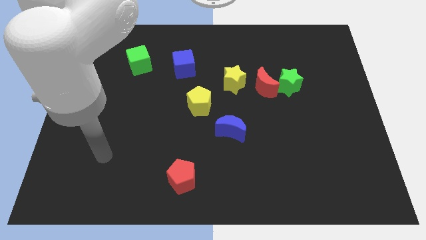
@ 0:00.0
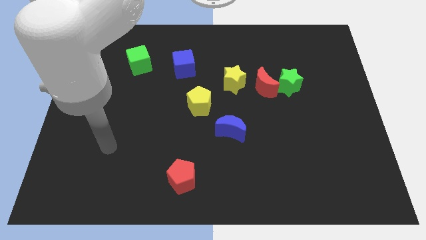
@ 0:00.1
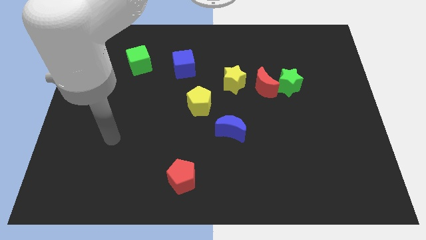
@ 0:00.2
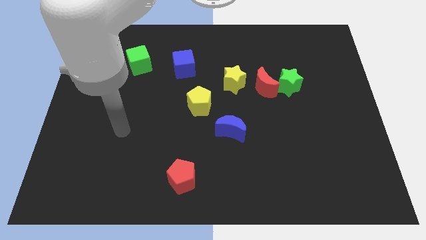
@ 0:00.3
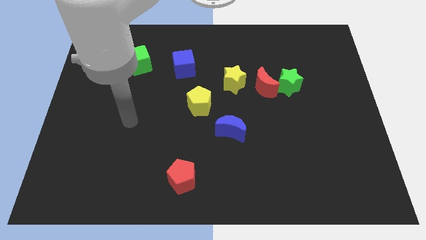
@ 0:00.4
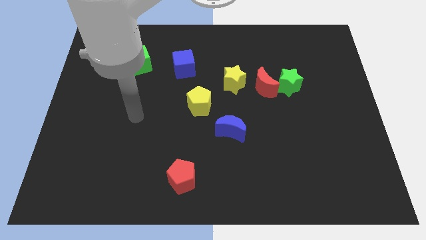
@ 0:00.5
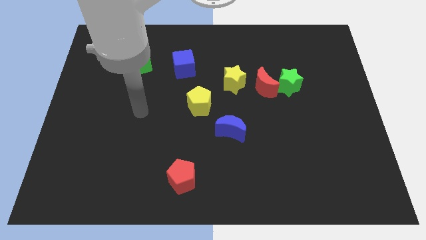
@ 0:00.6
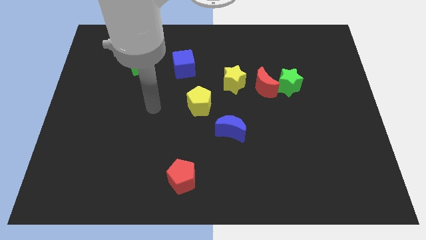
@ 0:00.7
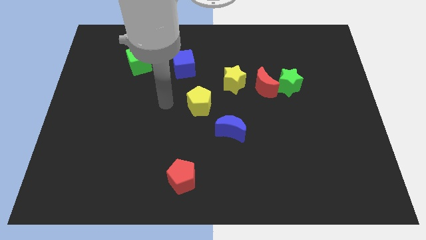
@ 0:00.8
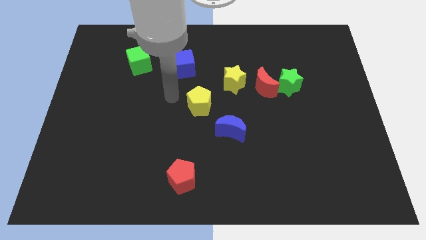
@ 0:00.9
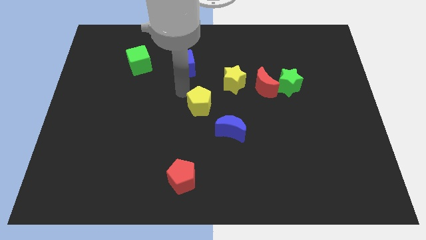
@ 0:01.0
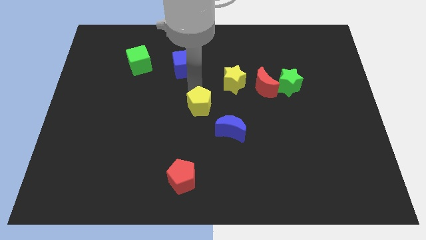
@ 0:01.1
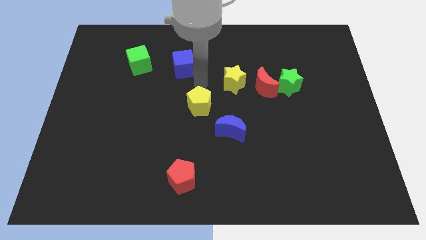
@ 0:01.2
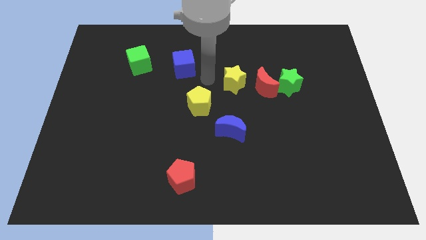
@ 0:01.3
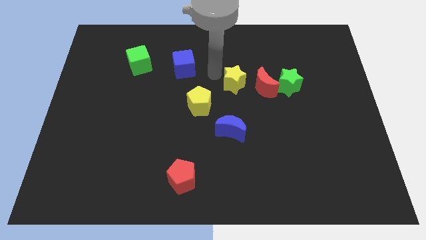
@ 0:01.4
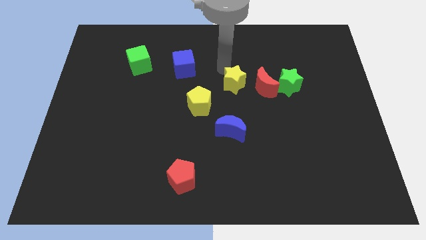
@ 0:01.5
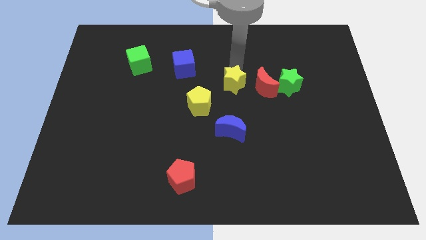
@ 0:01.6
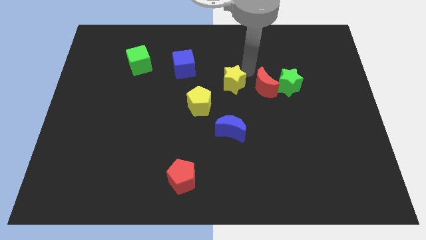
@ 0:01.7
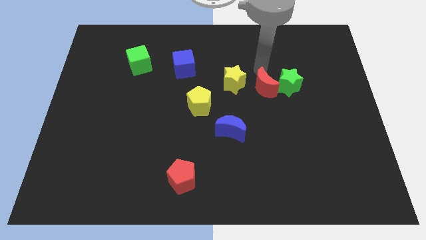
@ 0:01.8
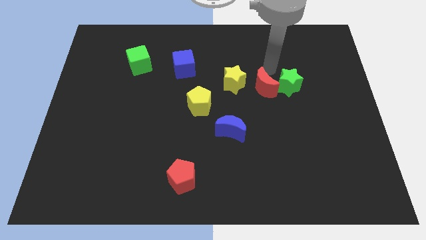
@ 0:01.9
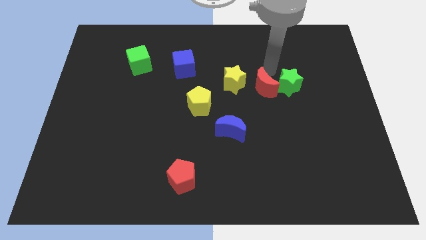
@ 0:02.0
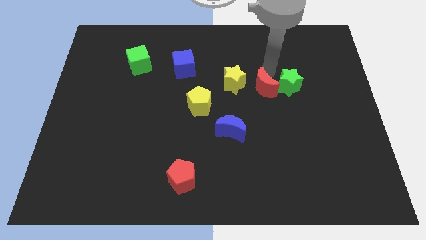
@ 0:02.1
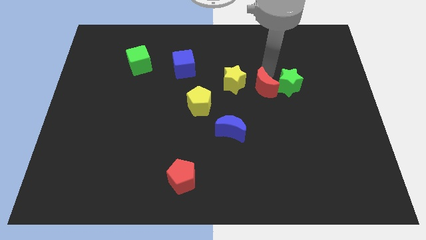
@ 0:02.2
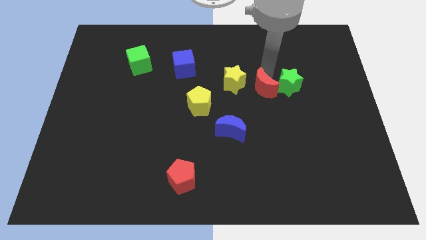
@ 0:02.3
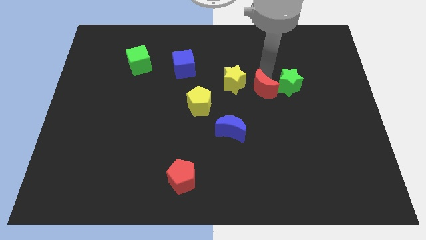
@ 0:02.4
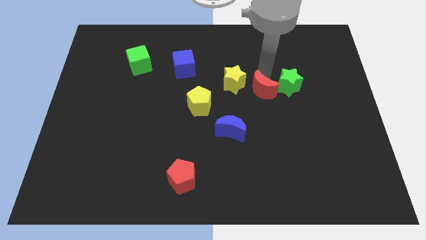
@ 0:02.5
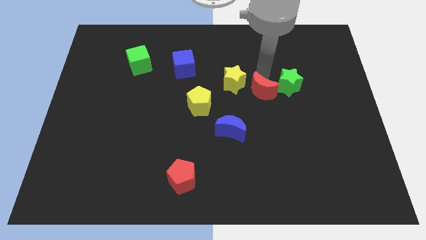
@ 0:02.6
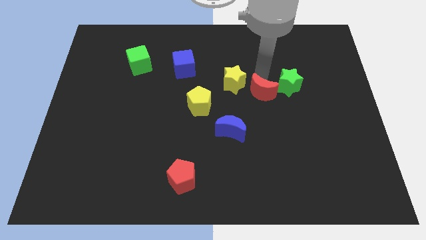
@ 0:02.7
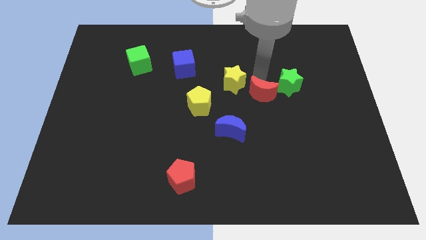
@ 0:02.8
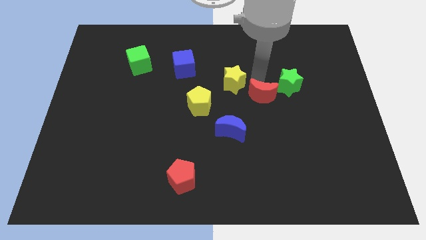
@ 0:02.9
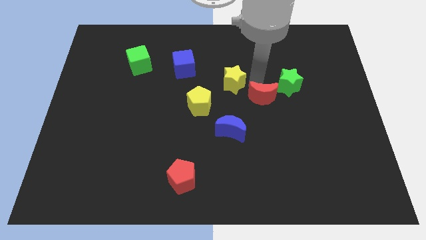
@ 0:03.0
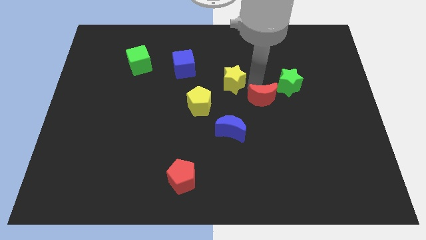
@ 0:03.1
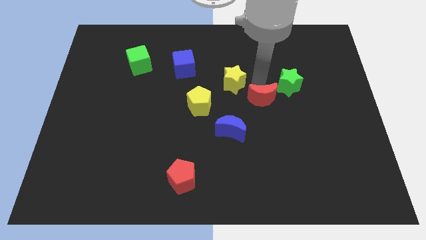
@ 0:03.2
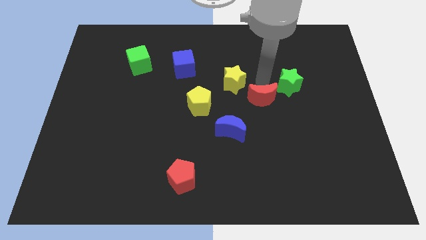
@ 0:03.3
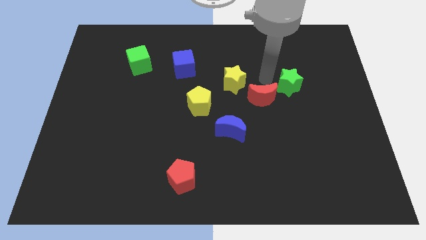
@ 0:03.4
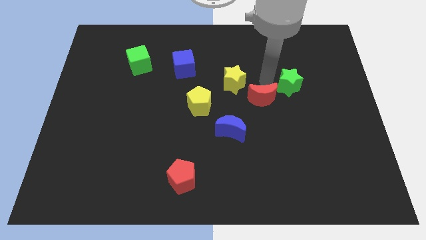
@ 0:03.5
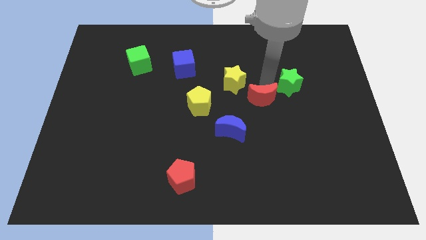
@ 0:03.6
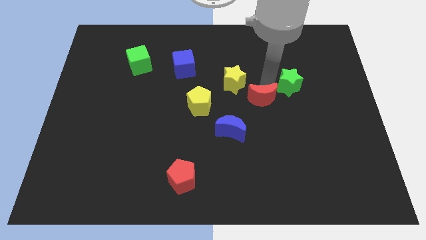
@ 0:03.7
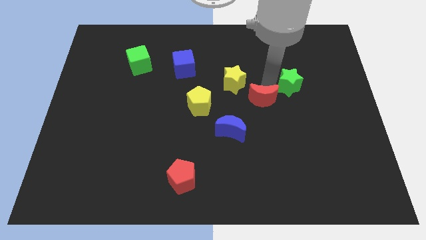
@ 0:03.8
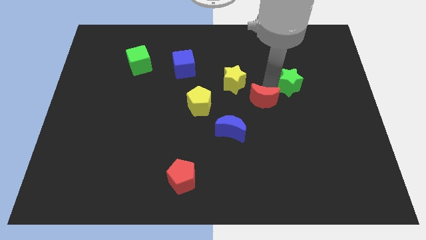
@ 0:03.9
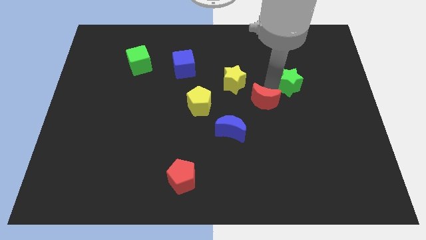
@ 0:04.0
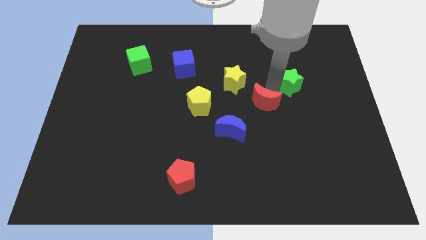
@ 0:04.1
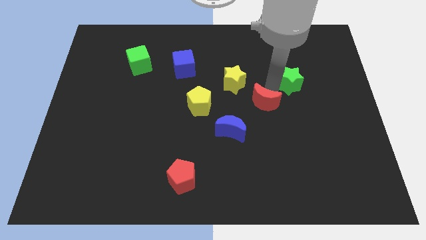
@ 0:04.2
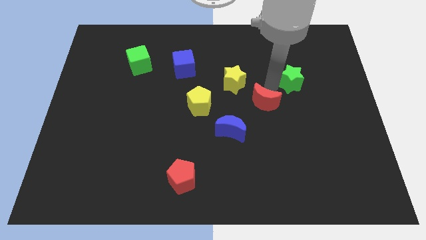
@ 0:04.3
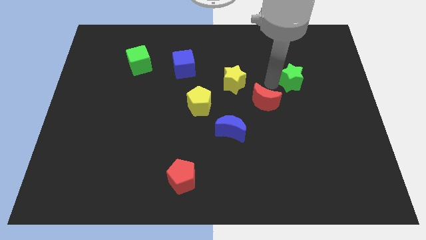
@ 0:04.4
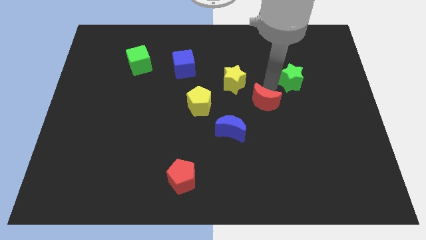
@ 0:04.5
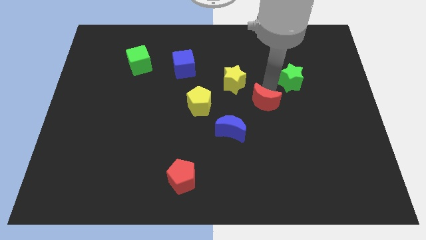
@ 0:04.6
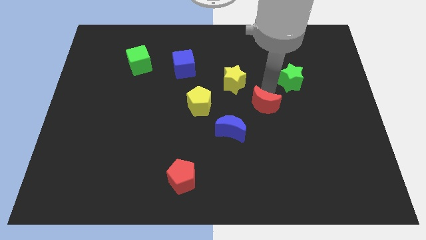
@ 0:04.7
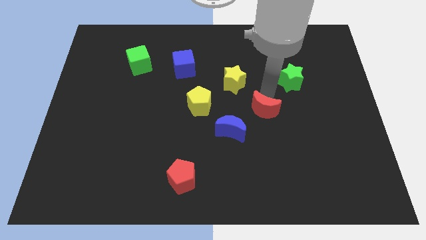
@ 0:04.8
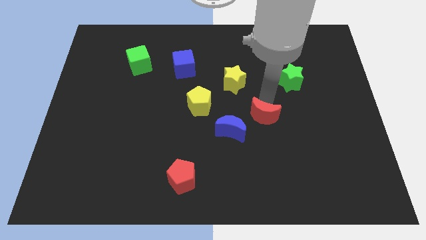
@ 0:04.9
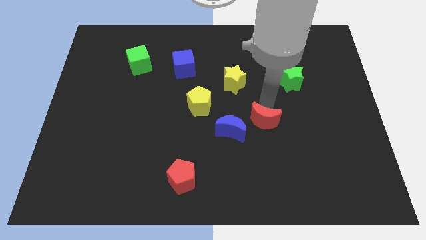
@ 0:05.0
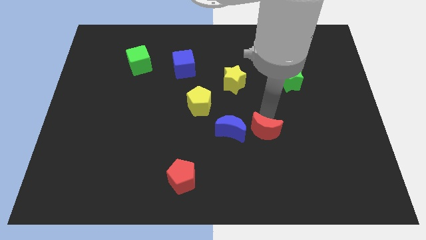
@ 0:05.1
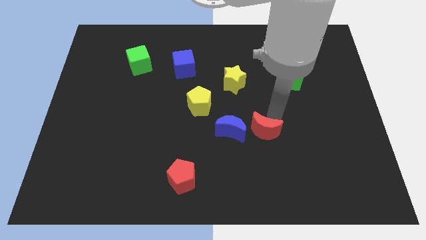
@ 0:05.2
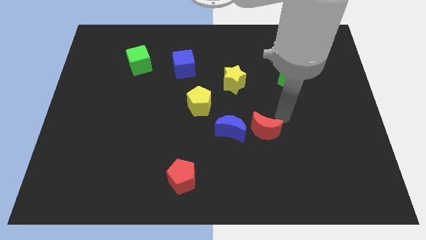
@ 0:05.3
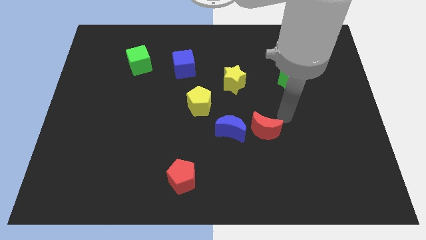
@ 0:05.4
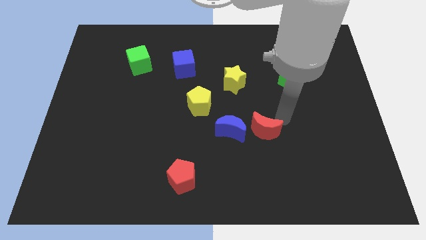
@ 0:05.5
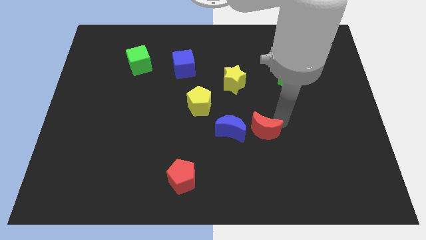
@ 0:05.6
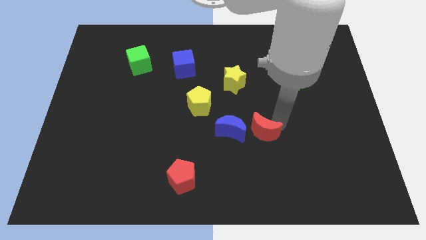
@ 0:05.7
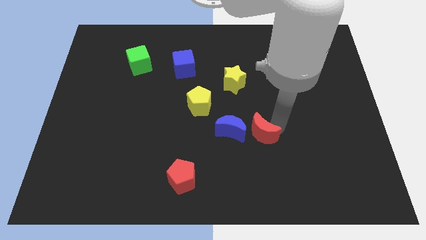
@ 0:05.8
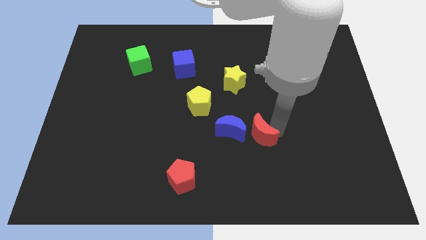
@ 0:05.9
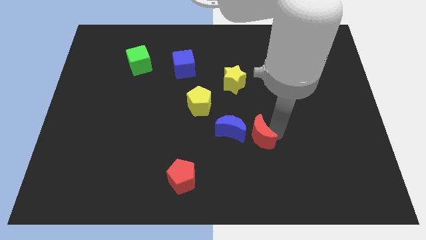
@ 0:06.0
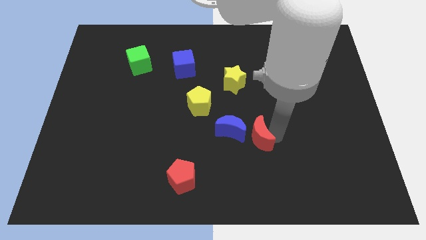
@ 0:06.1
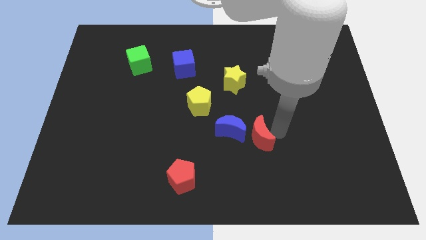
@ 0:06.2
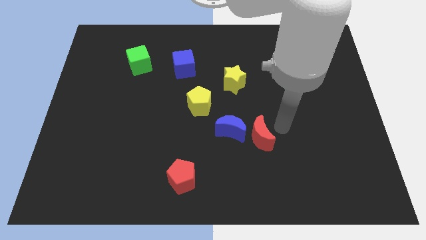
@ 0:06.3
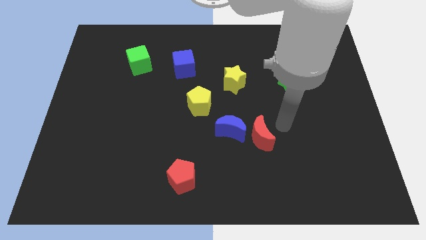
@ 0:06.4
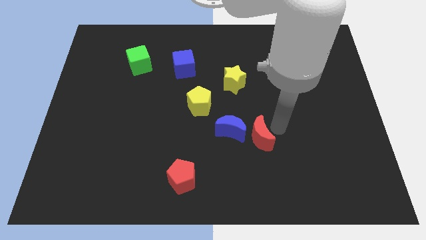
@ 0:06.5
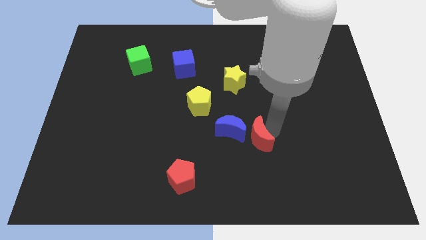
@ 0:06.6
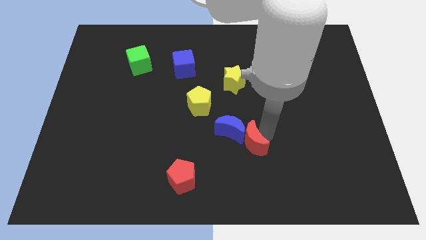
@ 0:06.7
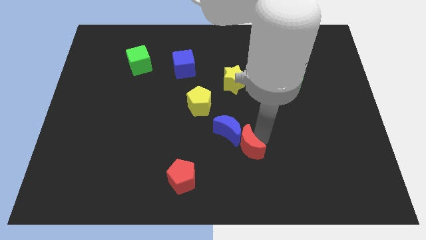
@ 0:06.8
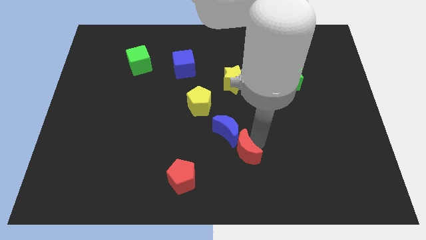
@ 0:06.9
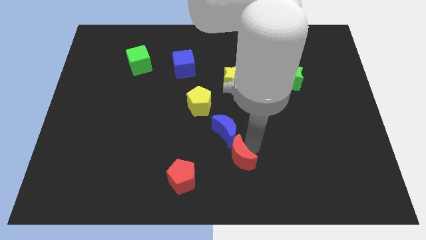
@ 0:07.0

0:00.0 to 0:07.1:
put the red moon to the bottom

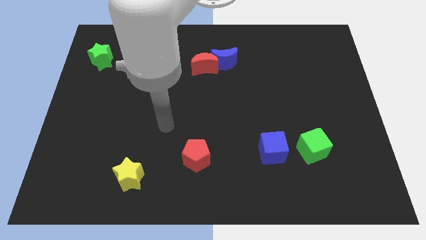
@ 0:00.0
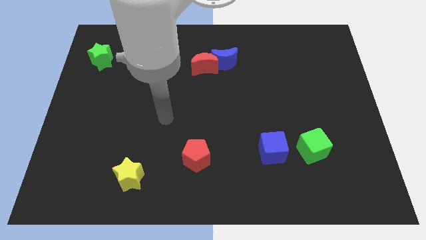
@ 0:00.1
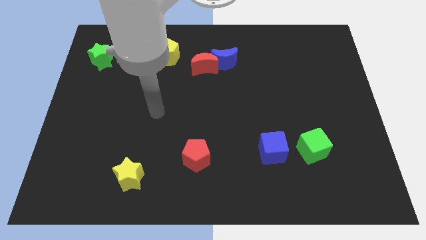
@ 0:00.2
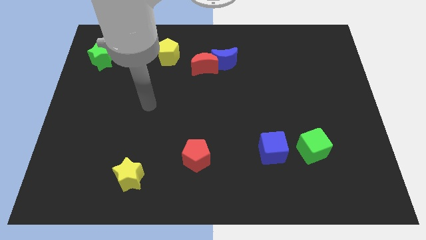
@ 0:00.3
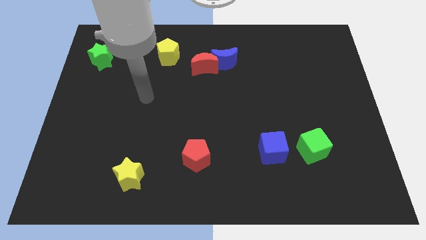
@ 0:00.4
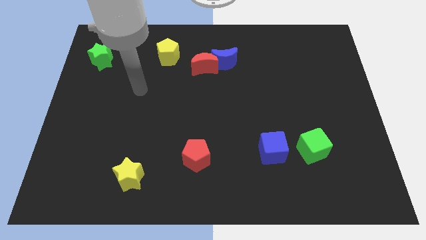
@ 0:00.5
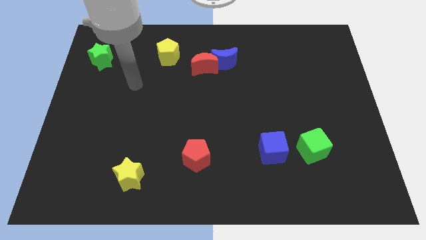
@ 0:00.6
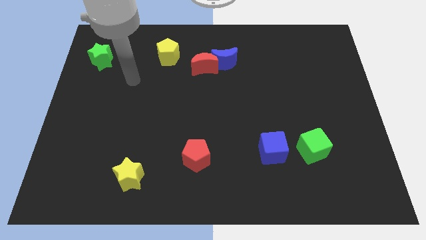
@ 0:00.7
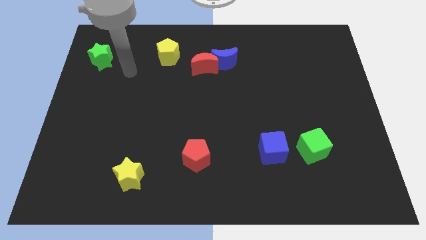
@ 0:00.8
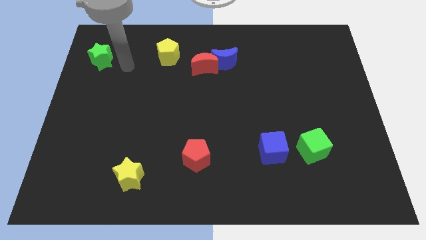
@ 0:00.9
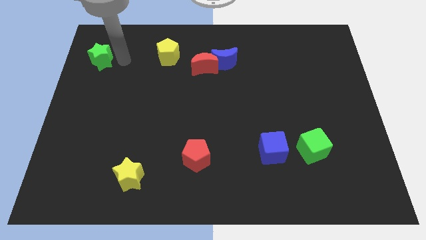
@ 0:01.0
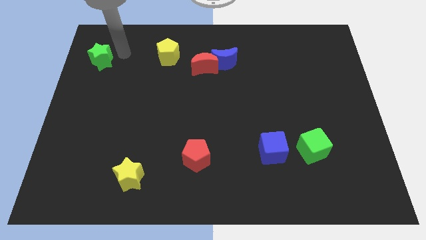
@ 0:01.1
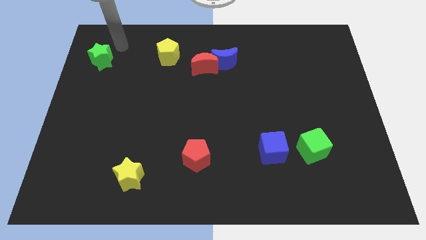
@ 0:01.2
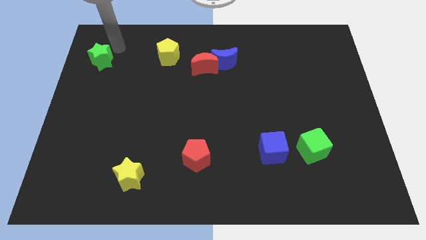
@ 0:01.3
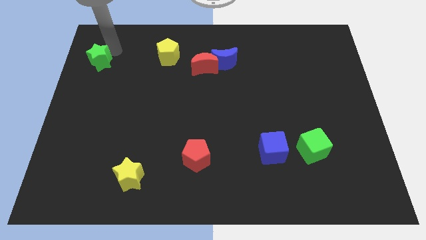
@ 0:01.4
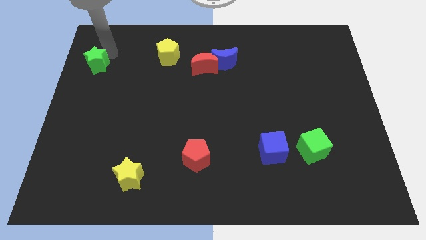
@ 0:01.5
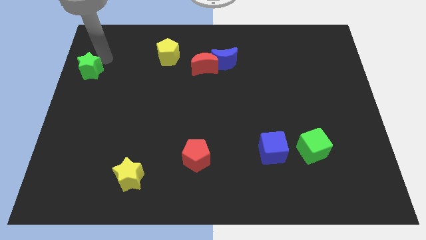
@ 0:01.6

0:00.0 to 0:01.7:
push the green star to the center left
